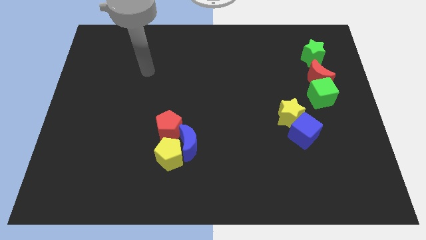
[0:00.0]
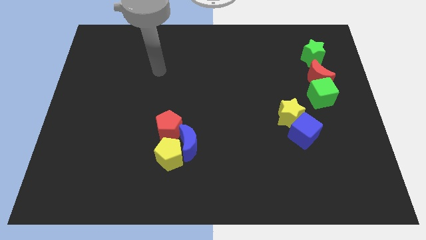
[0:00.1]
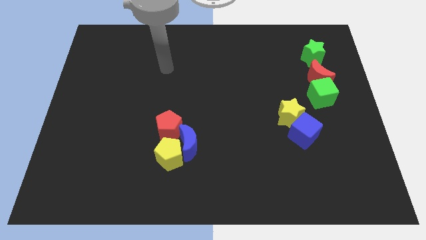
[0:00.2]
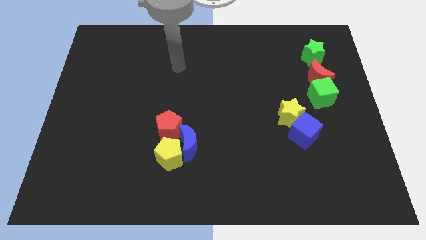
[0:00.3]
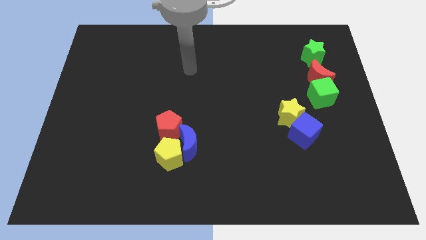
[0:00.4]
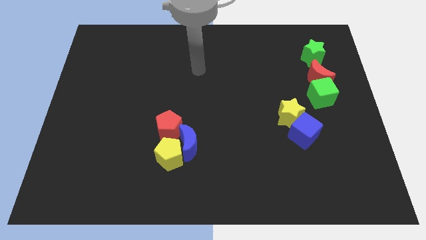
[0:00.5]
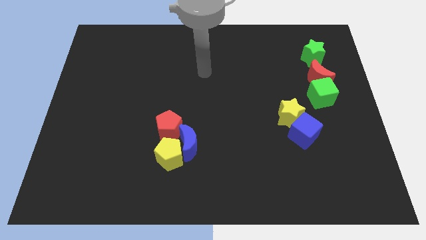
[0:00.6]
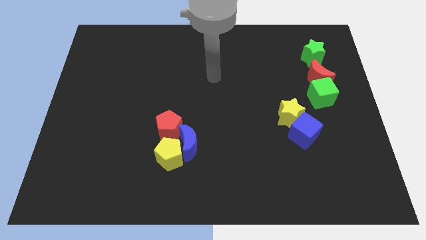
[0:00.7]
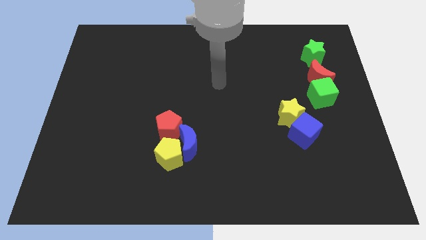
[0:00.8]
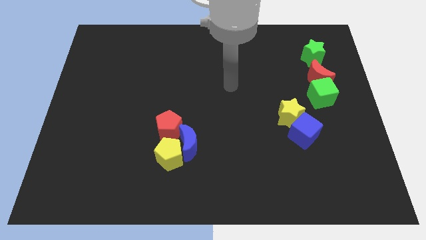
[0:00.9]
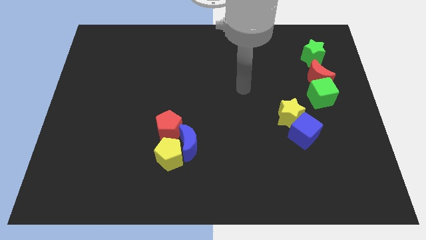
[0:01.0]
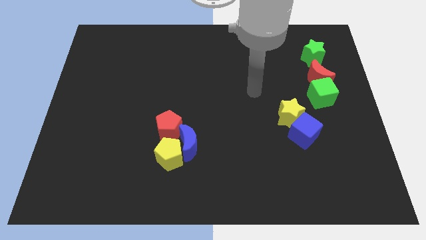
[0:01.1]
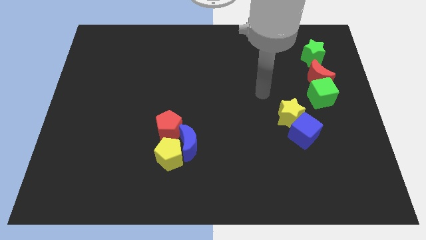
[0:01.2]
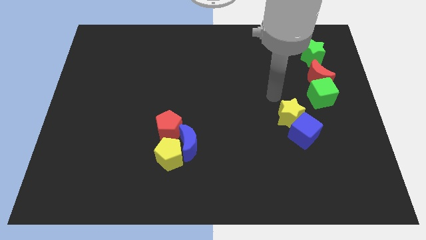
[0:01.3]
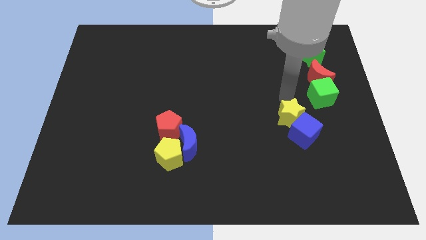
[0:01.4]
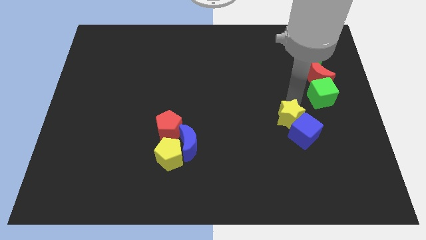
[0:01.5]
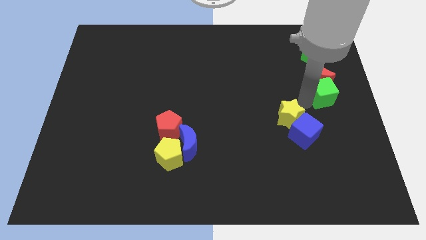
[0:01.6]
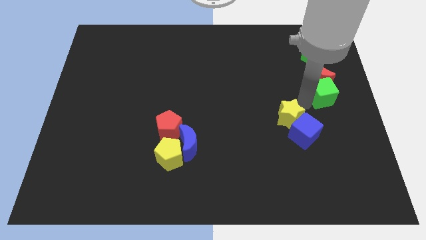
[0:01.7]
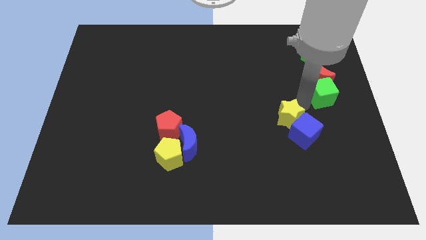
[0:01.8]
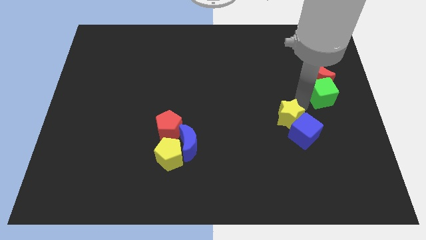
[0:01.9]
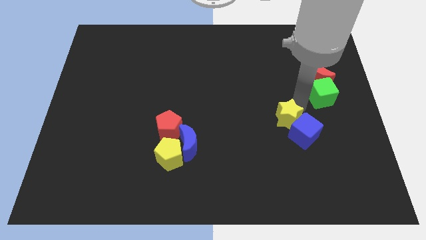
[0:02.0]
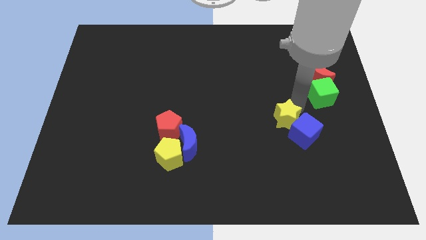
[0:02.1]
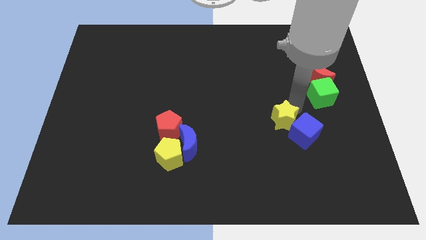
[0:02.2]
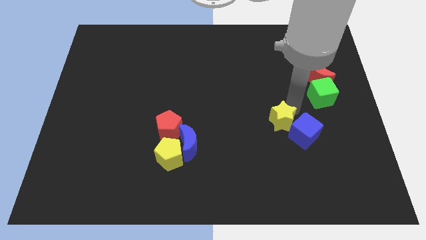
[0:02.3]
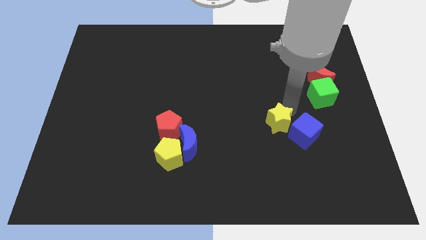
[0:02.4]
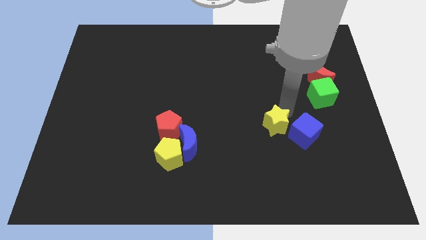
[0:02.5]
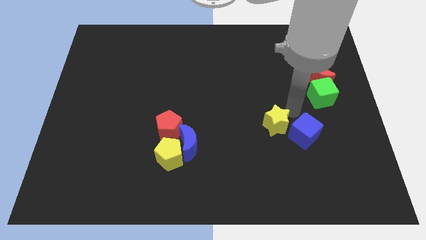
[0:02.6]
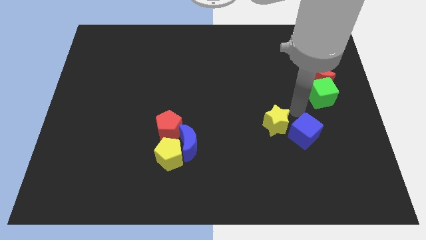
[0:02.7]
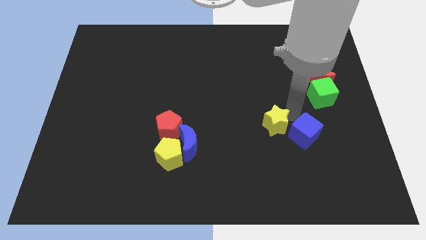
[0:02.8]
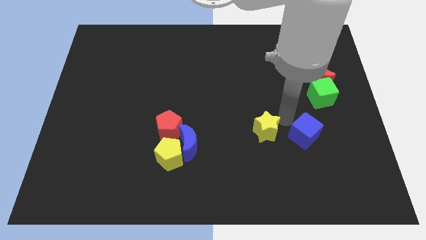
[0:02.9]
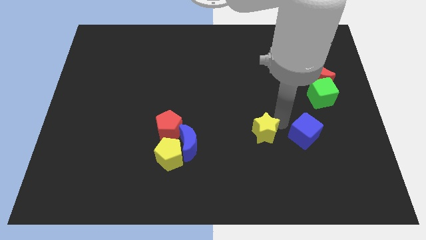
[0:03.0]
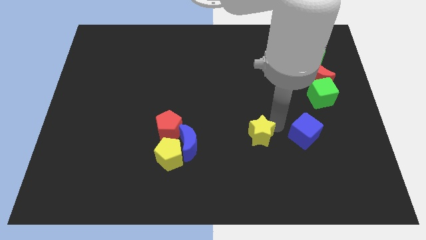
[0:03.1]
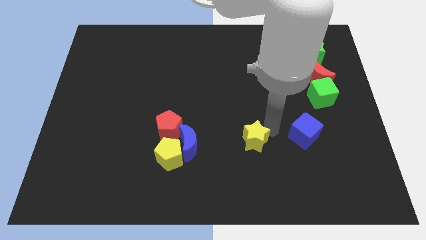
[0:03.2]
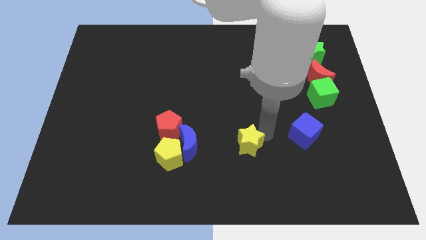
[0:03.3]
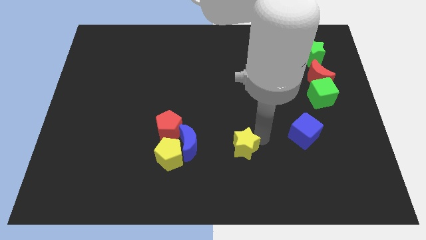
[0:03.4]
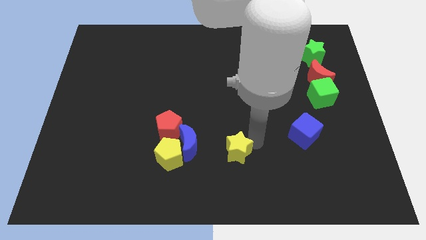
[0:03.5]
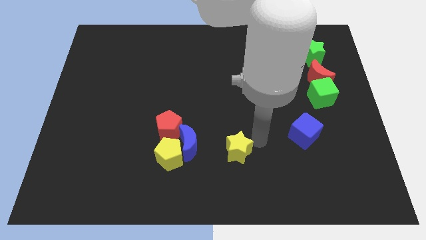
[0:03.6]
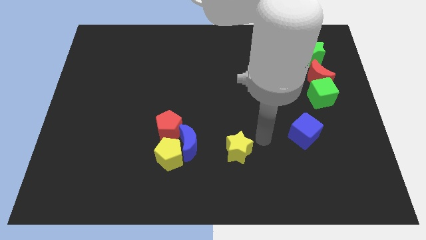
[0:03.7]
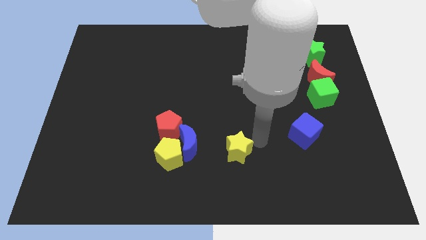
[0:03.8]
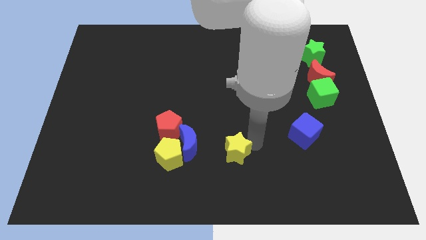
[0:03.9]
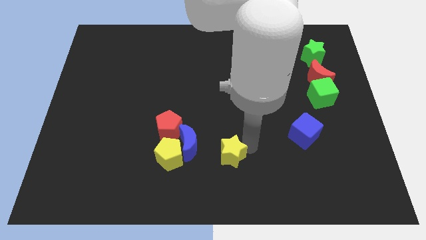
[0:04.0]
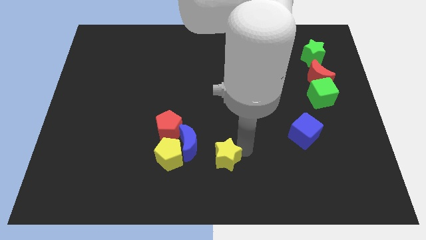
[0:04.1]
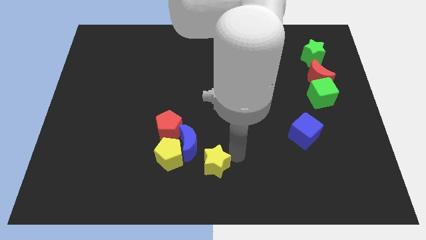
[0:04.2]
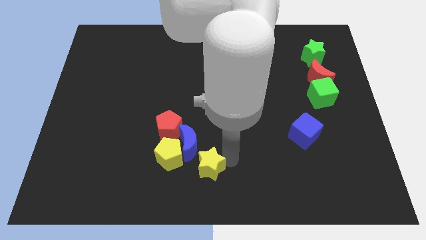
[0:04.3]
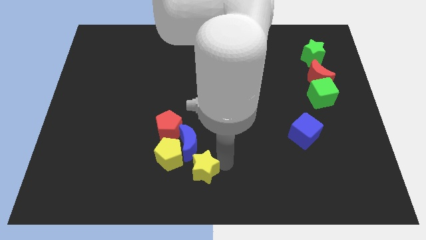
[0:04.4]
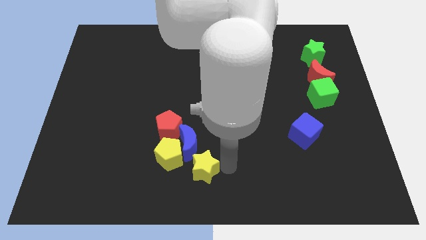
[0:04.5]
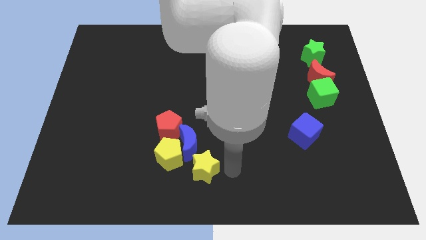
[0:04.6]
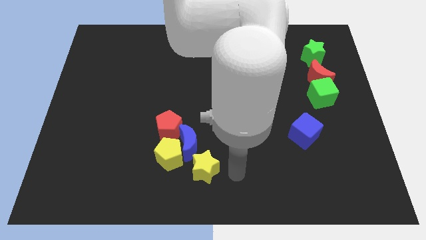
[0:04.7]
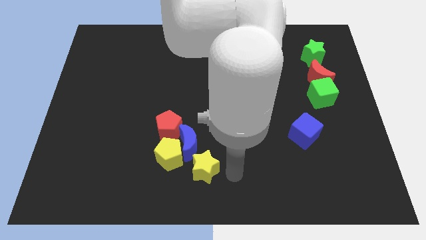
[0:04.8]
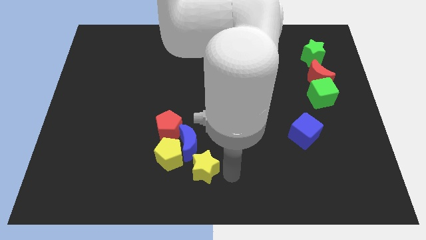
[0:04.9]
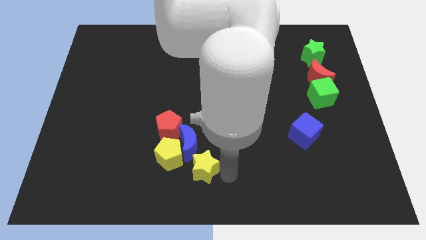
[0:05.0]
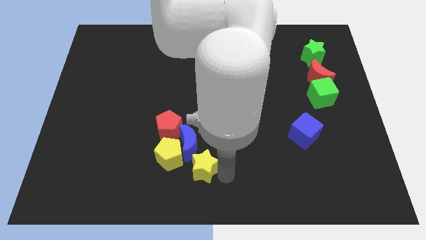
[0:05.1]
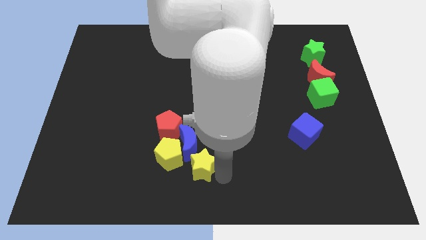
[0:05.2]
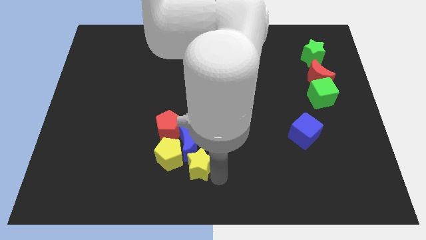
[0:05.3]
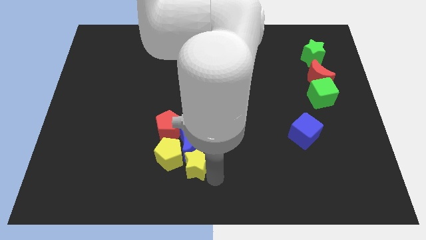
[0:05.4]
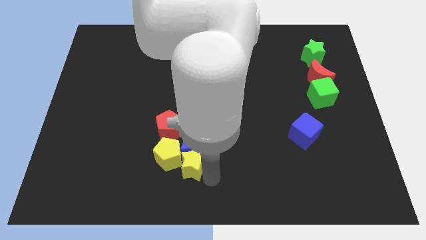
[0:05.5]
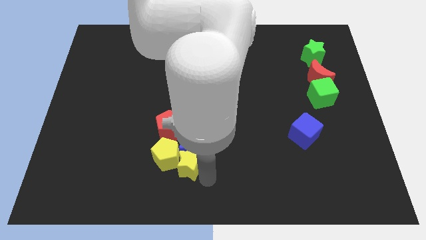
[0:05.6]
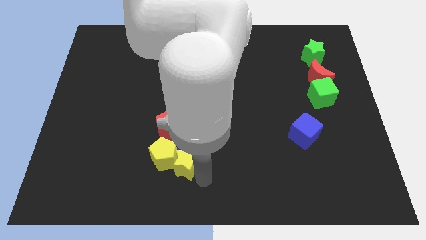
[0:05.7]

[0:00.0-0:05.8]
move the yellow star below the red pentagon
